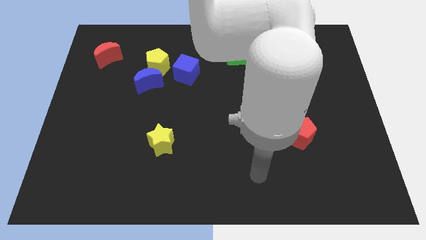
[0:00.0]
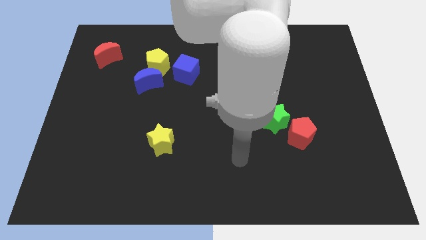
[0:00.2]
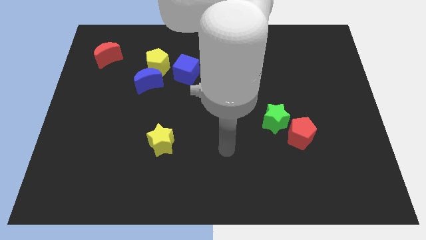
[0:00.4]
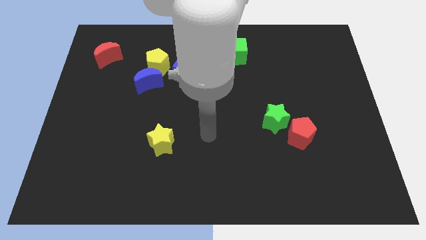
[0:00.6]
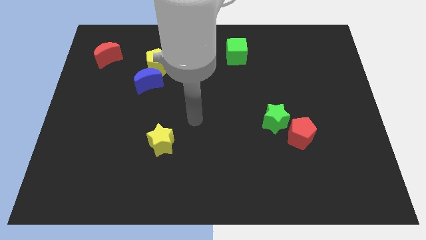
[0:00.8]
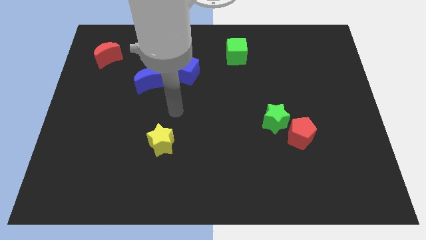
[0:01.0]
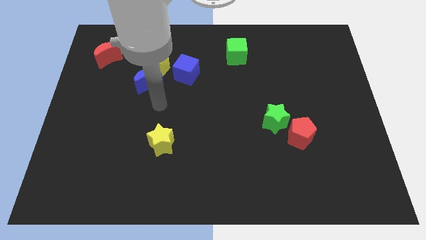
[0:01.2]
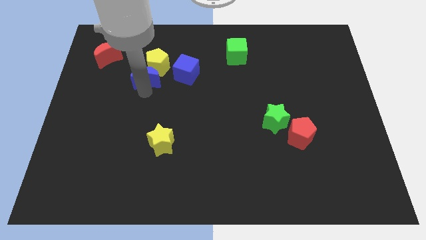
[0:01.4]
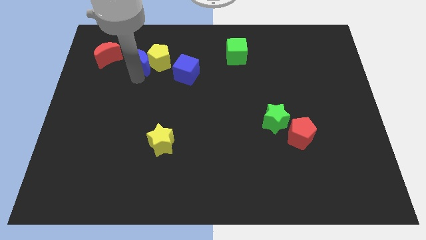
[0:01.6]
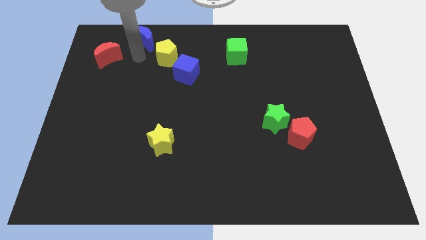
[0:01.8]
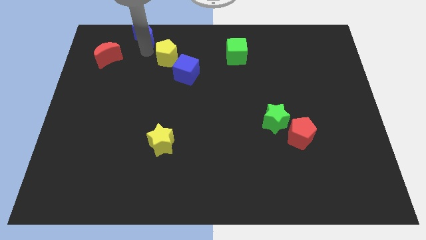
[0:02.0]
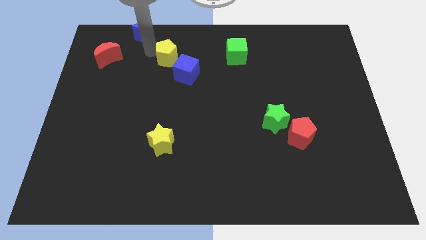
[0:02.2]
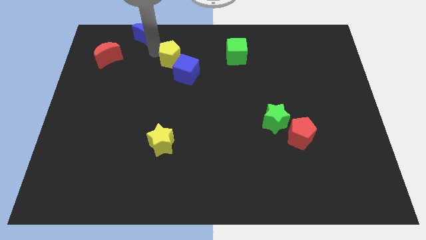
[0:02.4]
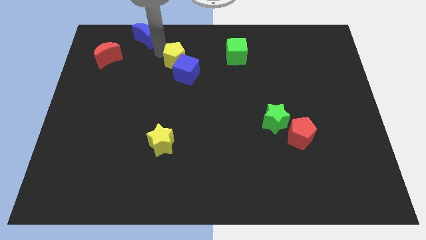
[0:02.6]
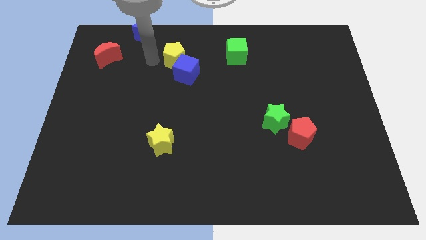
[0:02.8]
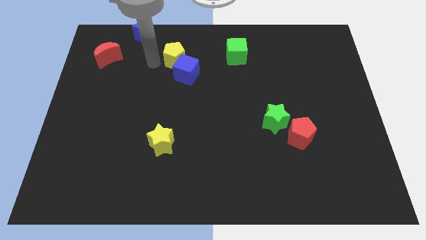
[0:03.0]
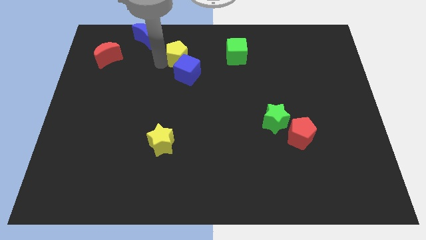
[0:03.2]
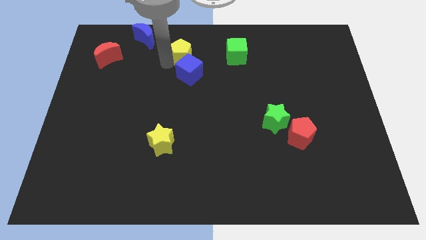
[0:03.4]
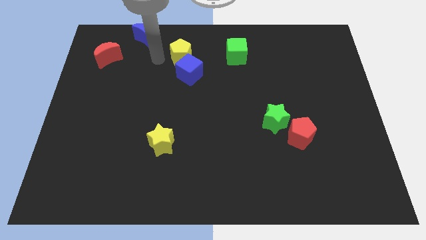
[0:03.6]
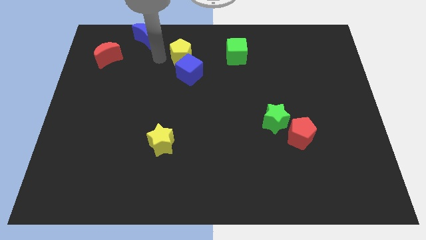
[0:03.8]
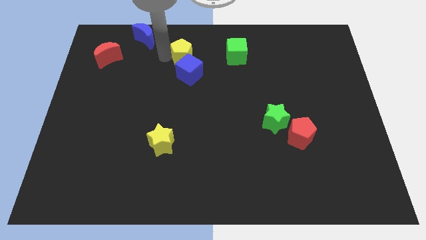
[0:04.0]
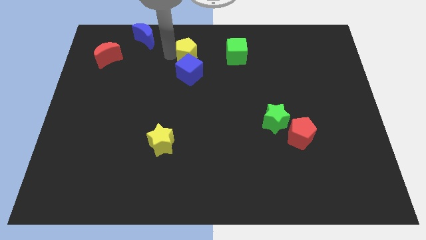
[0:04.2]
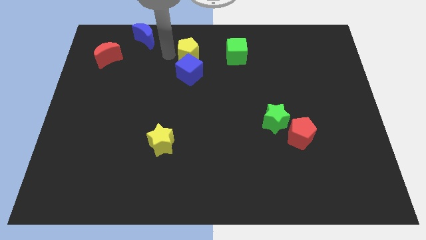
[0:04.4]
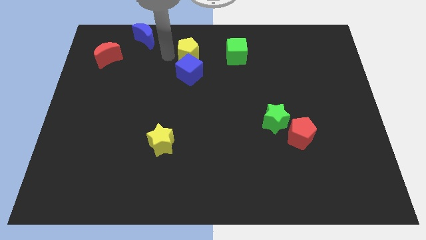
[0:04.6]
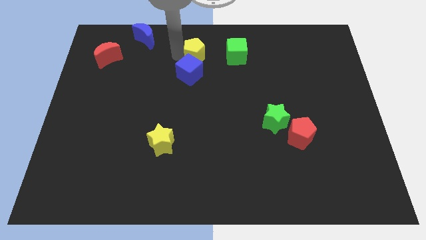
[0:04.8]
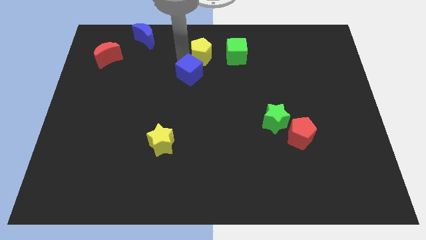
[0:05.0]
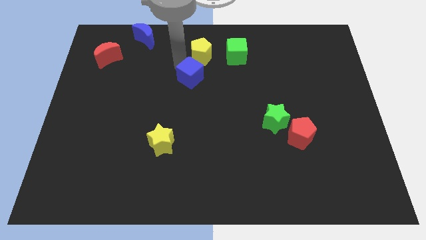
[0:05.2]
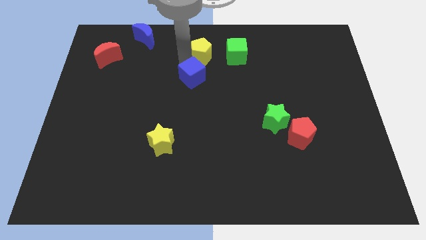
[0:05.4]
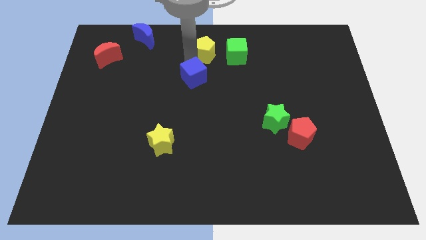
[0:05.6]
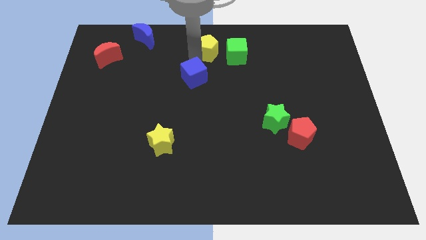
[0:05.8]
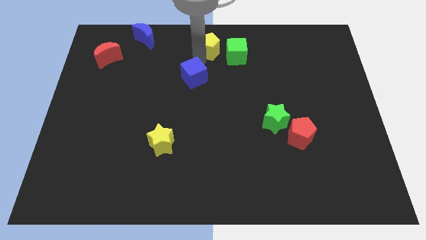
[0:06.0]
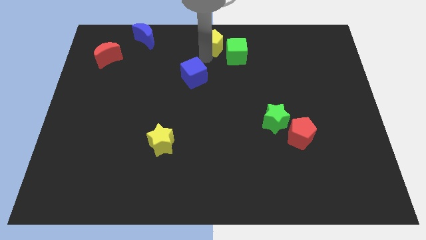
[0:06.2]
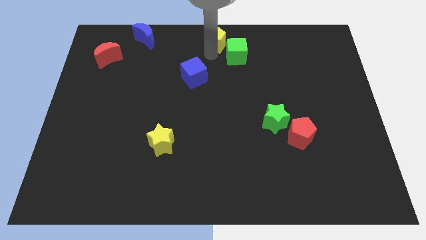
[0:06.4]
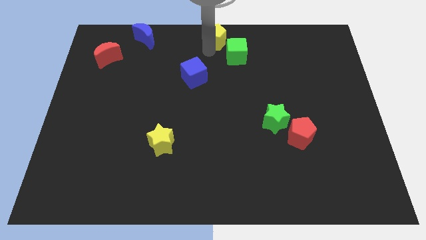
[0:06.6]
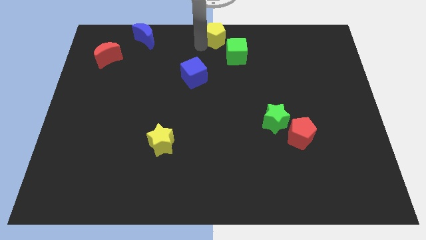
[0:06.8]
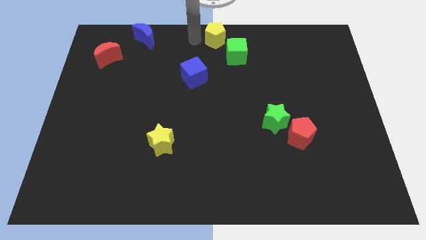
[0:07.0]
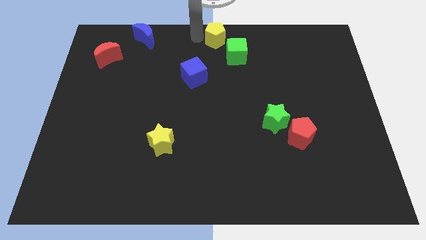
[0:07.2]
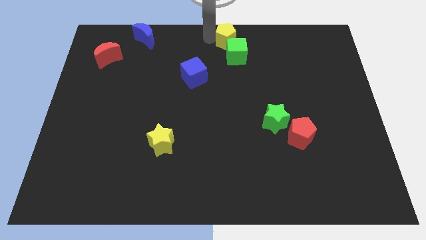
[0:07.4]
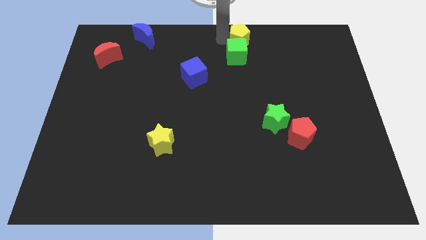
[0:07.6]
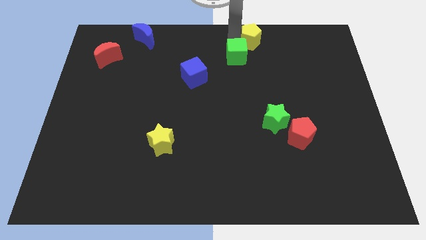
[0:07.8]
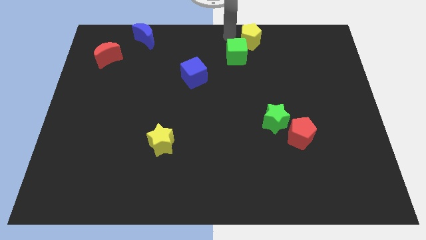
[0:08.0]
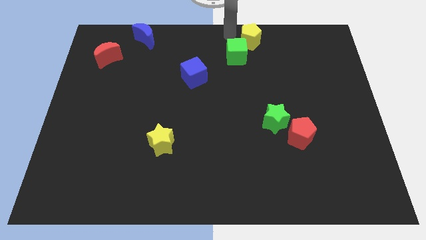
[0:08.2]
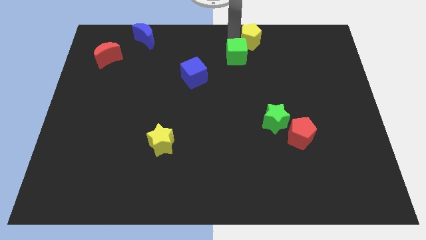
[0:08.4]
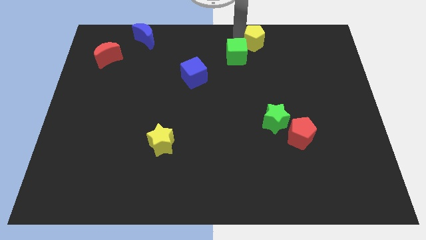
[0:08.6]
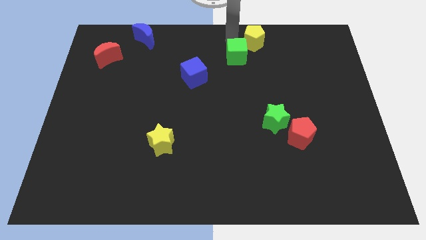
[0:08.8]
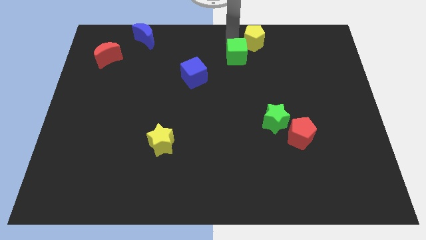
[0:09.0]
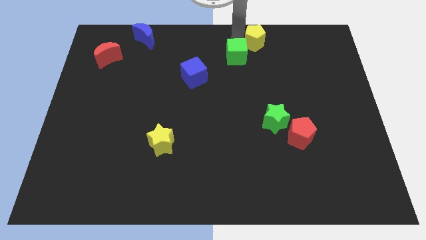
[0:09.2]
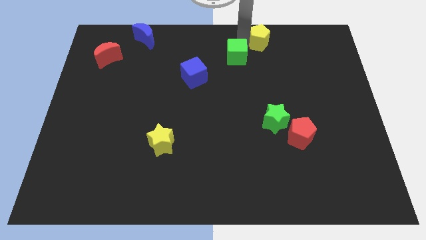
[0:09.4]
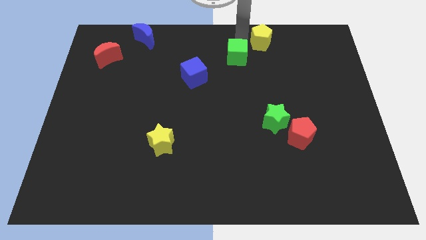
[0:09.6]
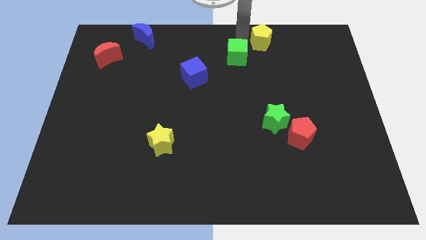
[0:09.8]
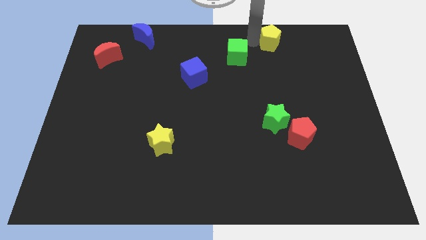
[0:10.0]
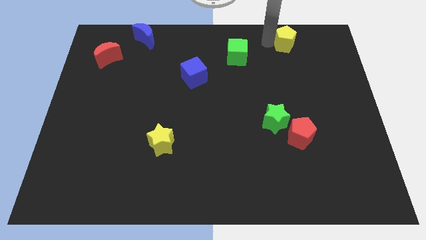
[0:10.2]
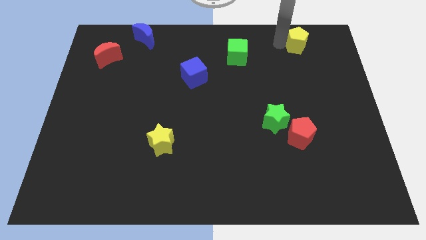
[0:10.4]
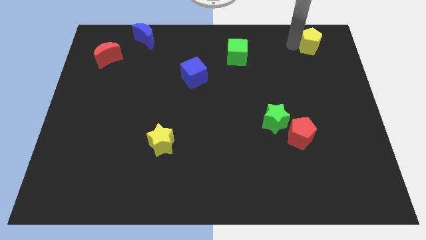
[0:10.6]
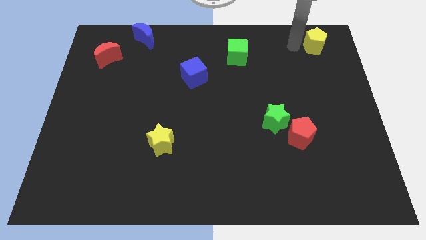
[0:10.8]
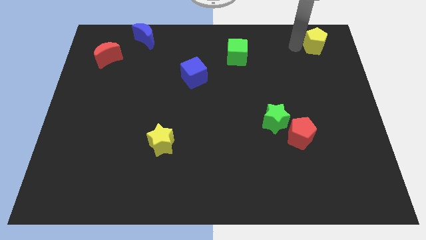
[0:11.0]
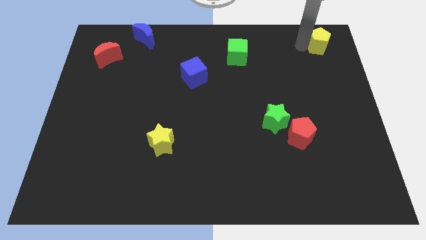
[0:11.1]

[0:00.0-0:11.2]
move the yellow pentagon to the top right of the board
